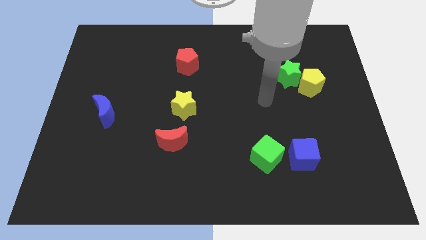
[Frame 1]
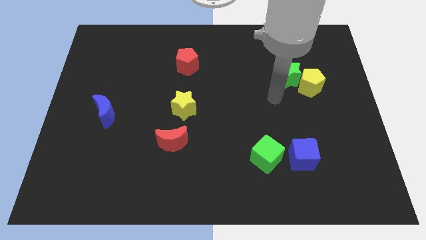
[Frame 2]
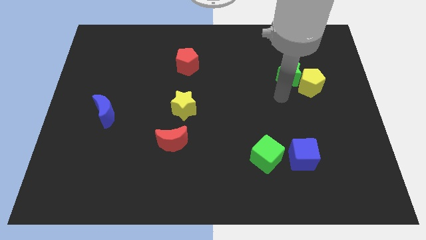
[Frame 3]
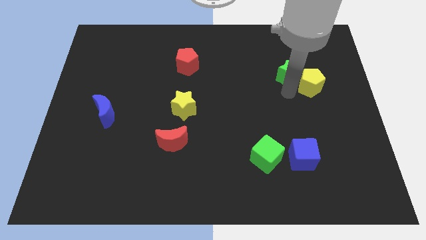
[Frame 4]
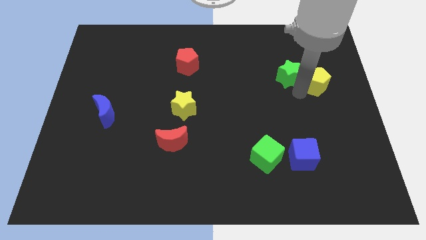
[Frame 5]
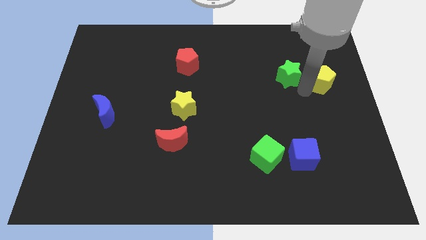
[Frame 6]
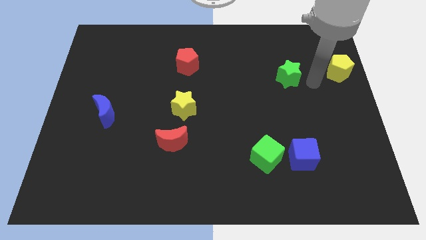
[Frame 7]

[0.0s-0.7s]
pull the green star apart from the yellow pentagon

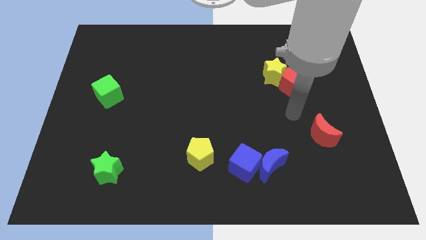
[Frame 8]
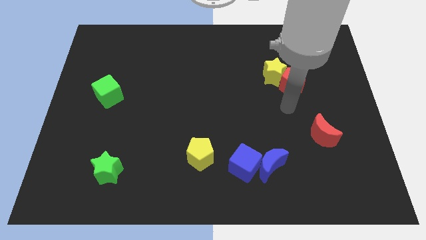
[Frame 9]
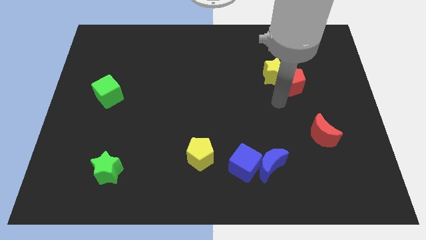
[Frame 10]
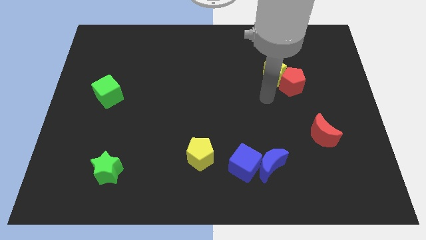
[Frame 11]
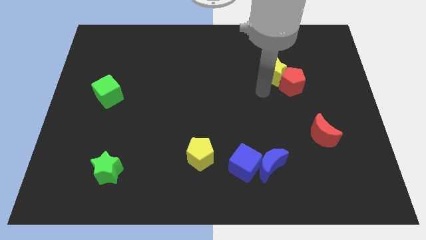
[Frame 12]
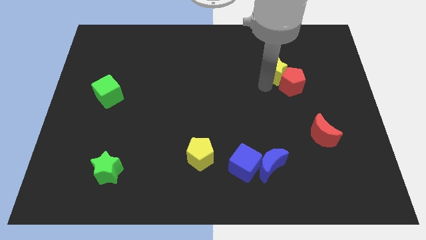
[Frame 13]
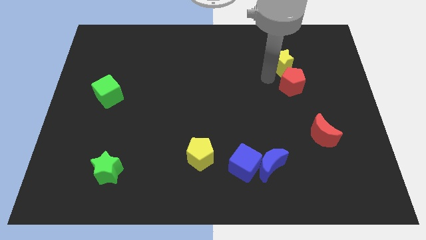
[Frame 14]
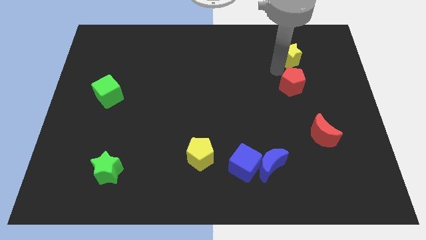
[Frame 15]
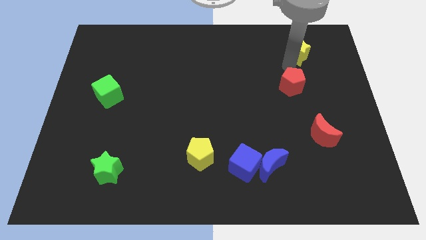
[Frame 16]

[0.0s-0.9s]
pull the red pentagon apart from the yellow star

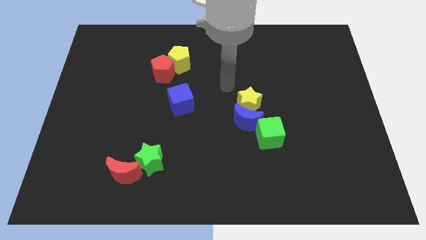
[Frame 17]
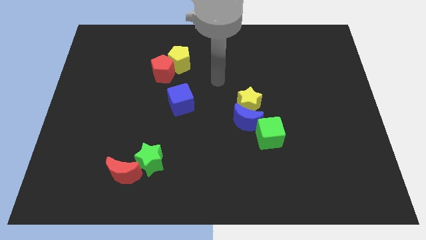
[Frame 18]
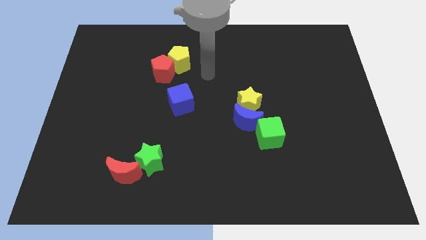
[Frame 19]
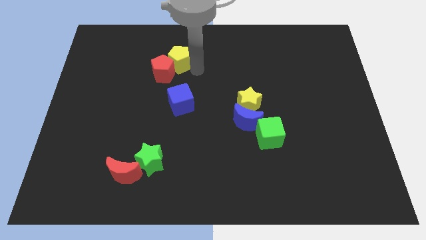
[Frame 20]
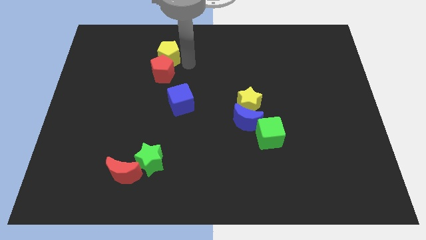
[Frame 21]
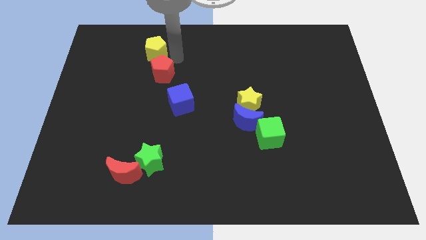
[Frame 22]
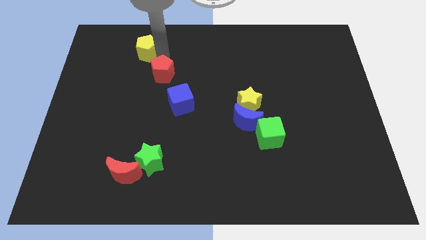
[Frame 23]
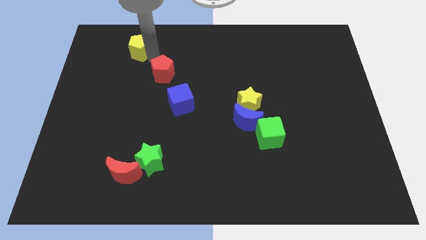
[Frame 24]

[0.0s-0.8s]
move the red pentagon away from the yellow pentagon

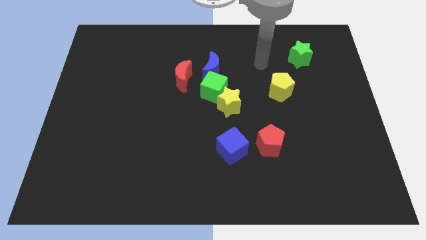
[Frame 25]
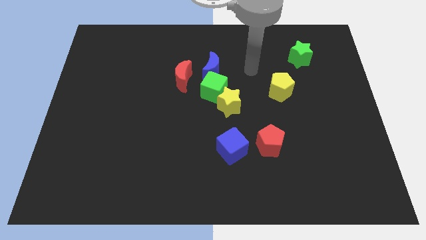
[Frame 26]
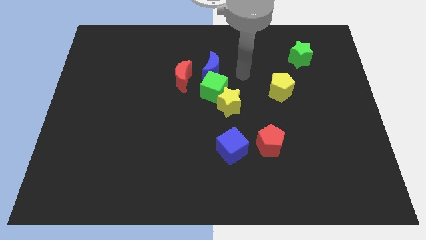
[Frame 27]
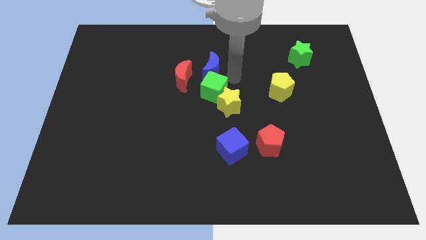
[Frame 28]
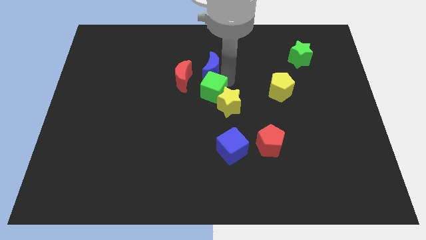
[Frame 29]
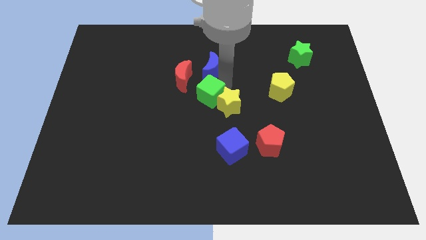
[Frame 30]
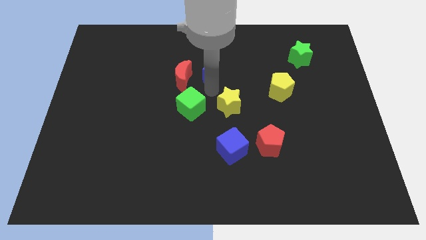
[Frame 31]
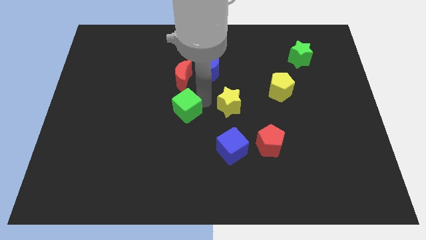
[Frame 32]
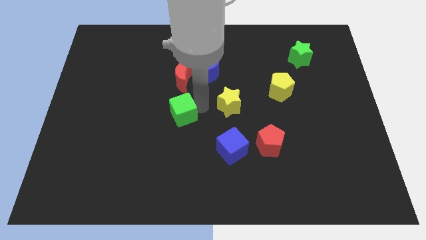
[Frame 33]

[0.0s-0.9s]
move the yellow star away from the green cube

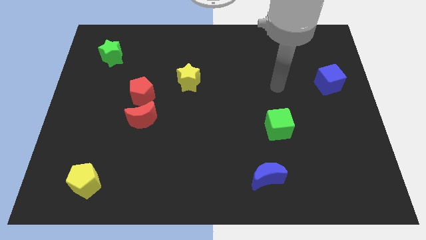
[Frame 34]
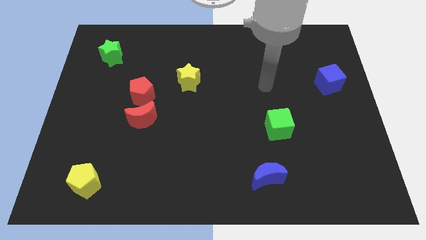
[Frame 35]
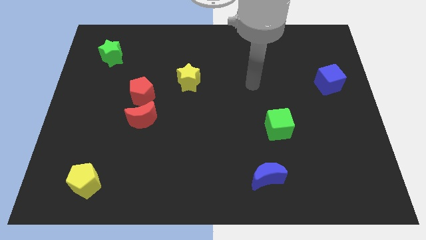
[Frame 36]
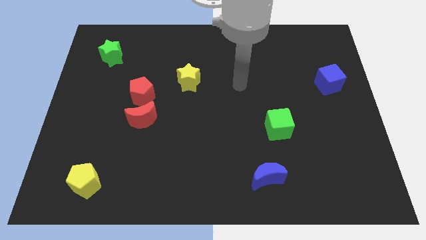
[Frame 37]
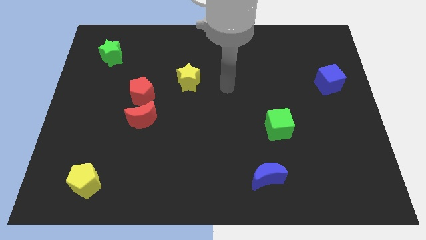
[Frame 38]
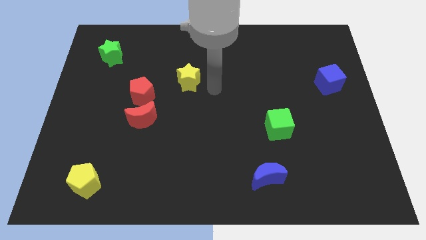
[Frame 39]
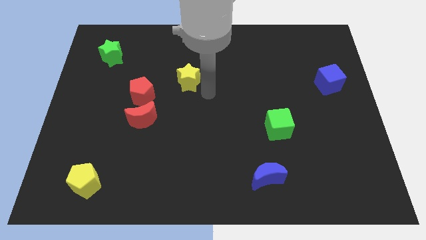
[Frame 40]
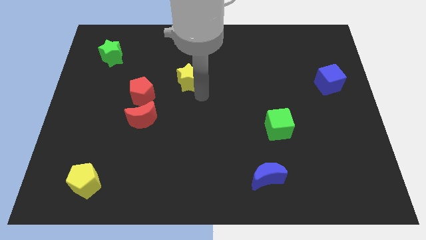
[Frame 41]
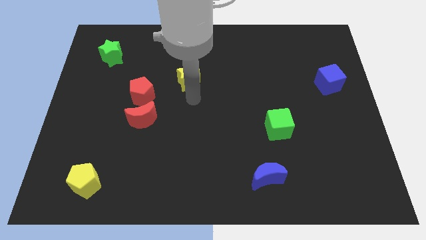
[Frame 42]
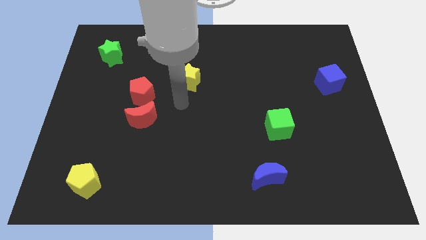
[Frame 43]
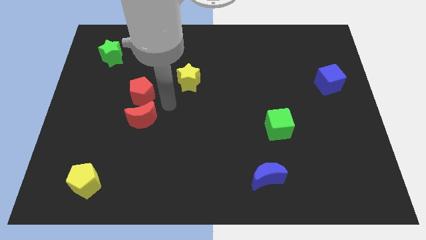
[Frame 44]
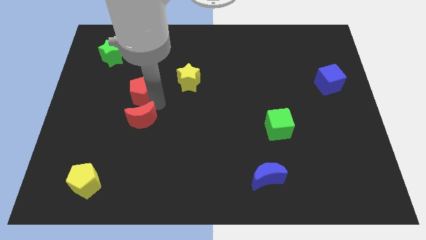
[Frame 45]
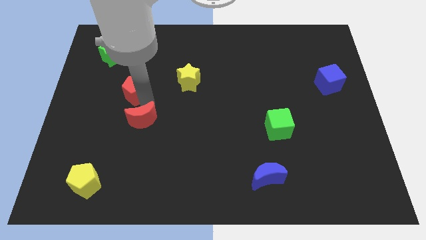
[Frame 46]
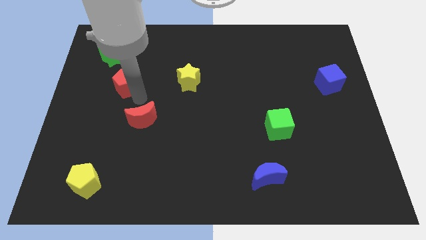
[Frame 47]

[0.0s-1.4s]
separate the red moon from the red pentagon

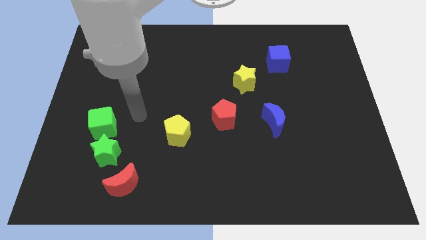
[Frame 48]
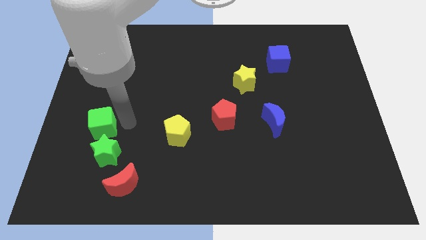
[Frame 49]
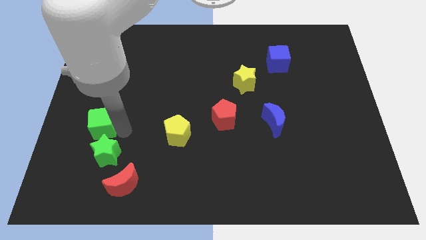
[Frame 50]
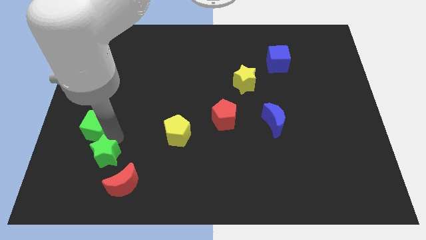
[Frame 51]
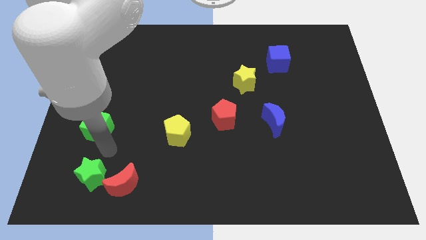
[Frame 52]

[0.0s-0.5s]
move the green cube away from the green star

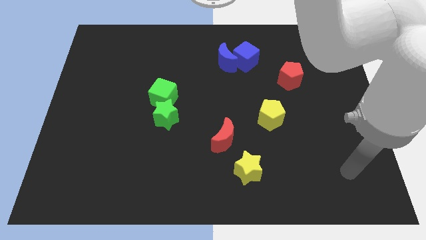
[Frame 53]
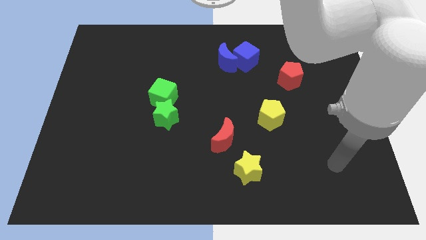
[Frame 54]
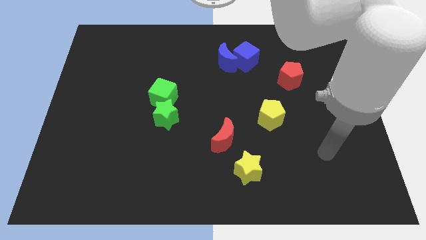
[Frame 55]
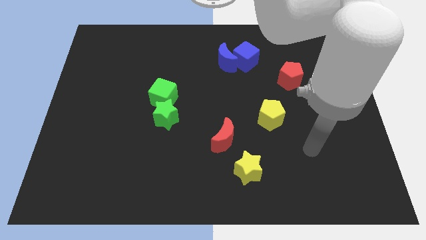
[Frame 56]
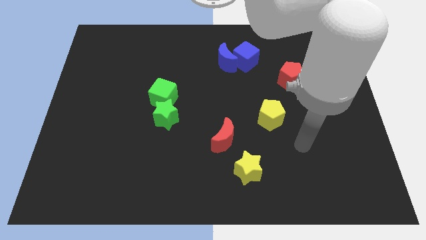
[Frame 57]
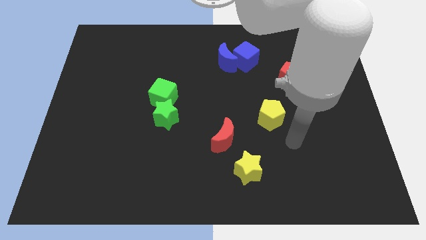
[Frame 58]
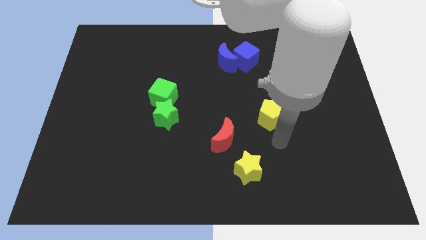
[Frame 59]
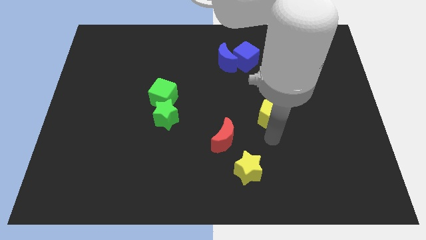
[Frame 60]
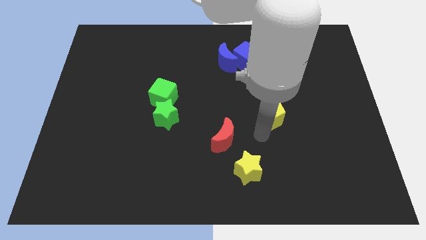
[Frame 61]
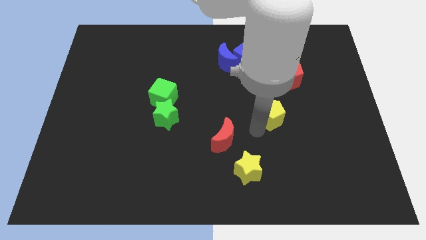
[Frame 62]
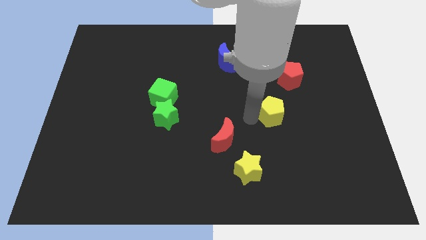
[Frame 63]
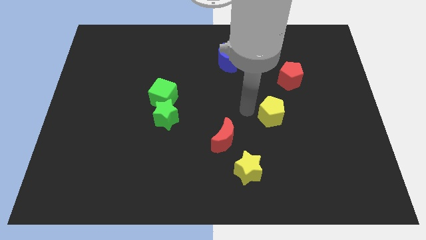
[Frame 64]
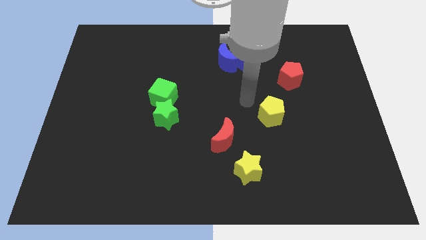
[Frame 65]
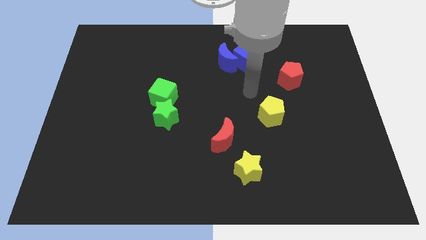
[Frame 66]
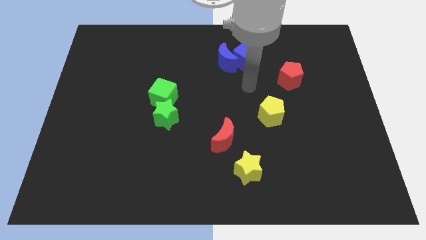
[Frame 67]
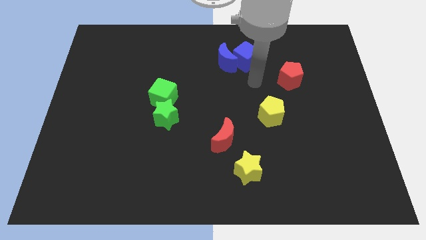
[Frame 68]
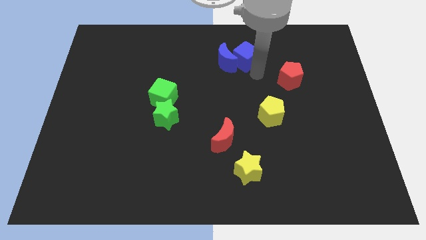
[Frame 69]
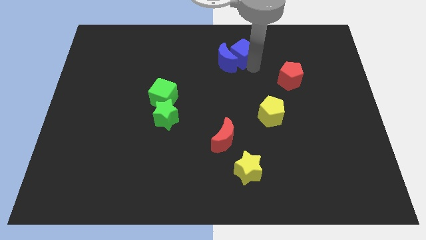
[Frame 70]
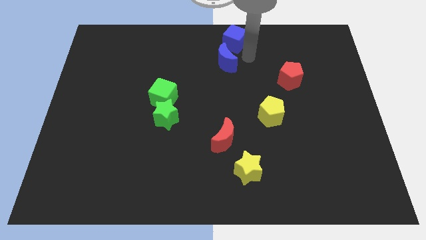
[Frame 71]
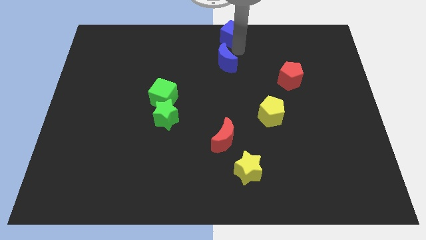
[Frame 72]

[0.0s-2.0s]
move the blue moon away from the blue cube

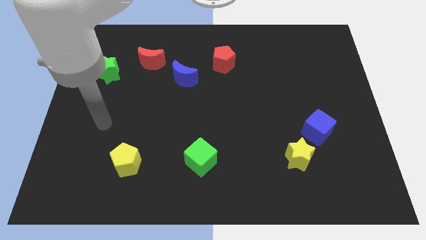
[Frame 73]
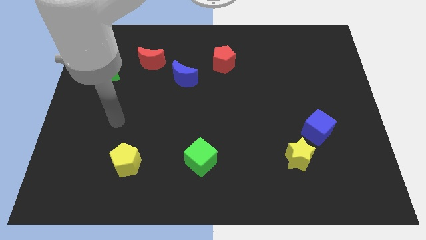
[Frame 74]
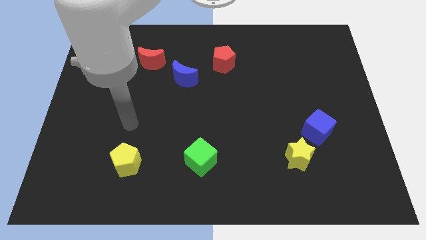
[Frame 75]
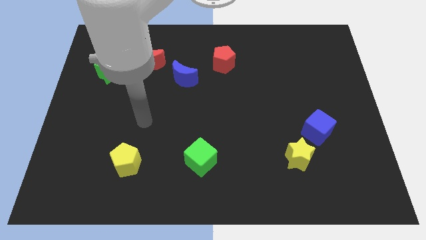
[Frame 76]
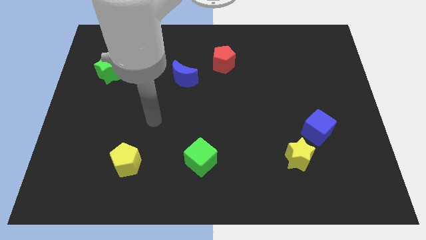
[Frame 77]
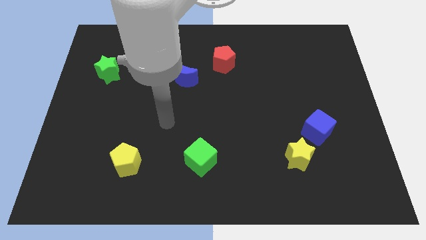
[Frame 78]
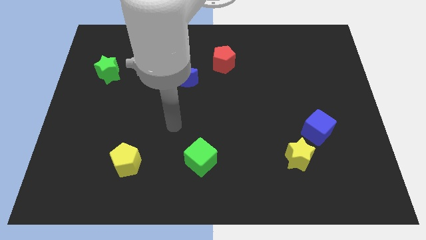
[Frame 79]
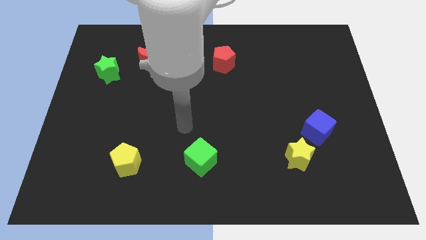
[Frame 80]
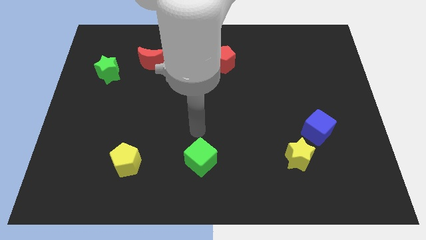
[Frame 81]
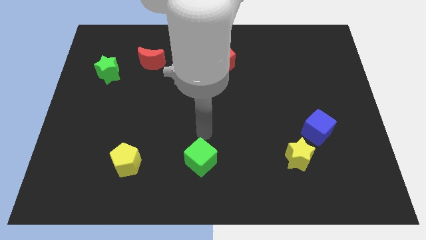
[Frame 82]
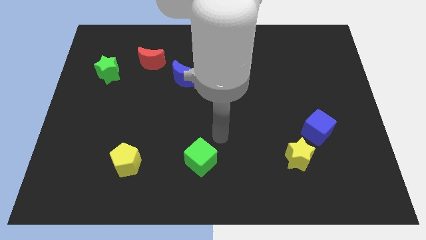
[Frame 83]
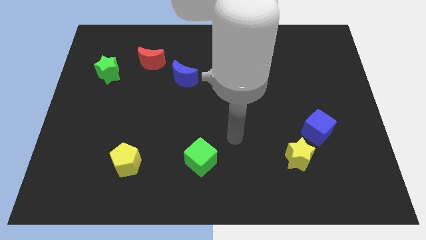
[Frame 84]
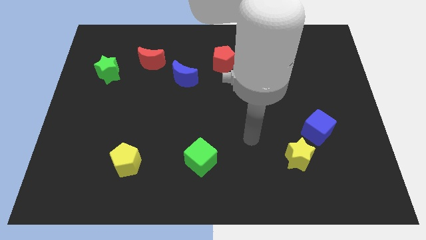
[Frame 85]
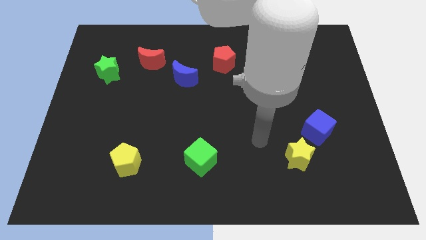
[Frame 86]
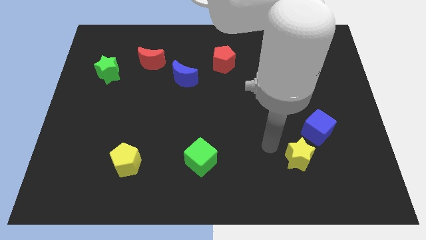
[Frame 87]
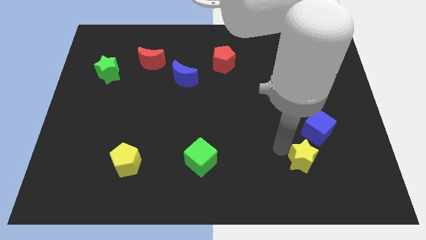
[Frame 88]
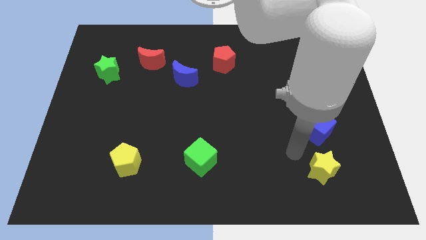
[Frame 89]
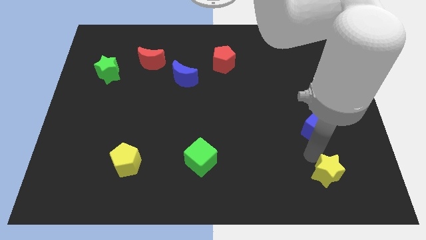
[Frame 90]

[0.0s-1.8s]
move the blue cube away from the yellow star

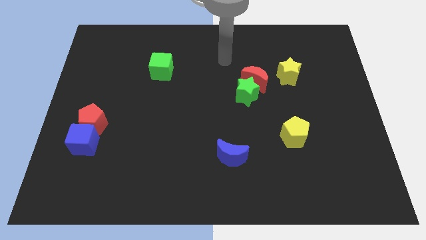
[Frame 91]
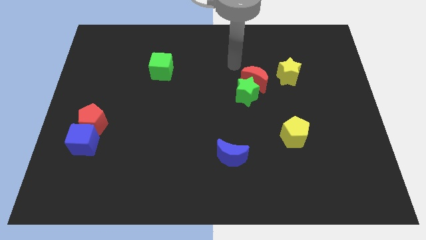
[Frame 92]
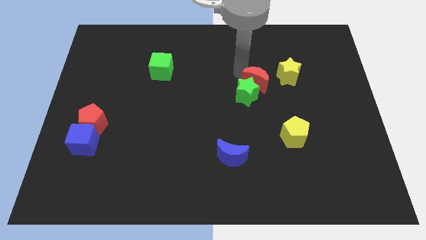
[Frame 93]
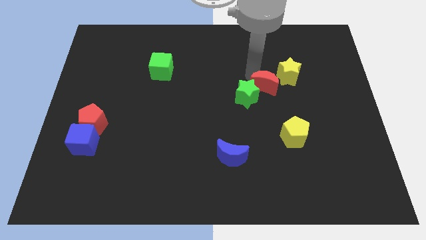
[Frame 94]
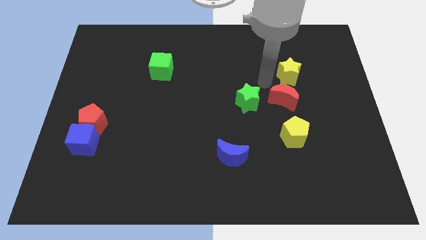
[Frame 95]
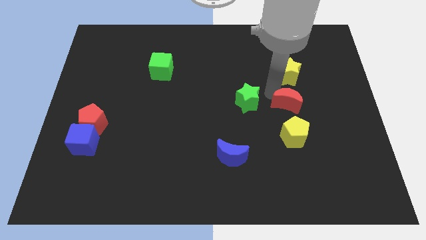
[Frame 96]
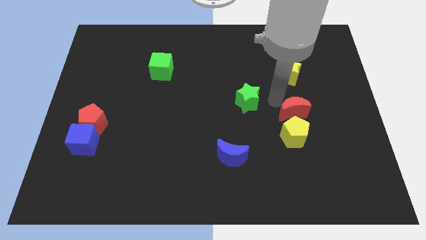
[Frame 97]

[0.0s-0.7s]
pull the green star apart from the red moon
